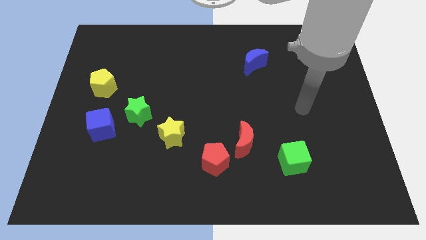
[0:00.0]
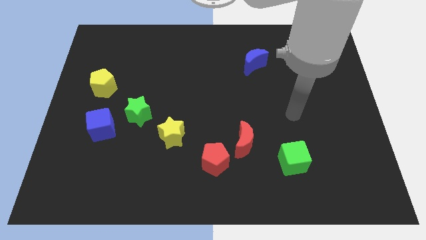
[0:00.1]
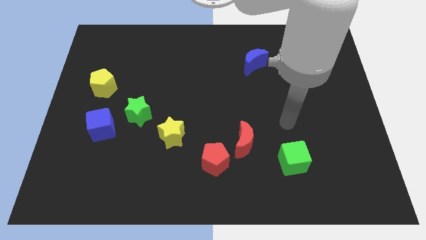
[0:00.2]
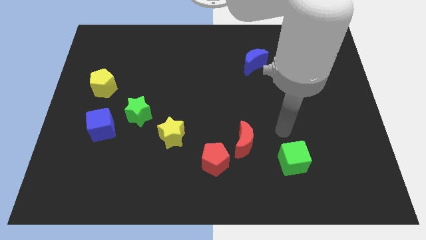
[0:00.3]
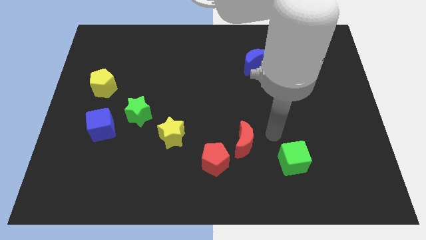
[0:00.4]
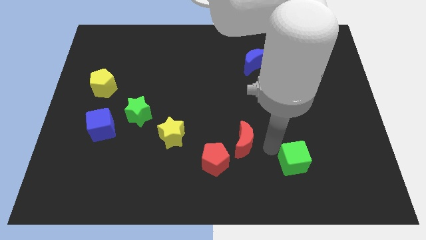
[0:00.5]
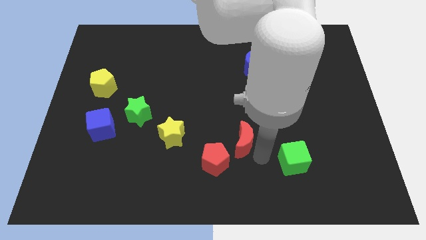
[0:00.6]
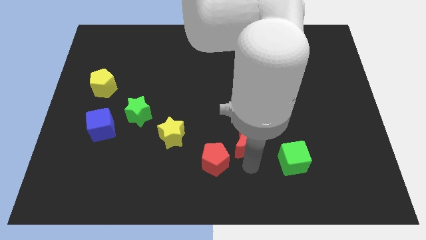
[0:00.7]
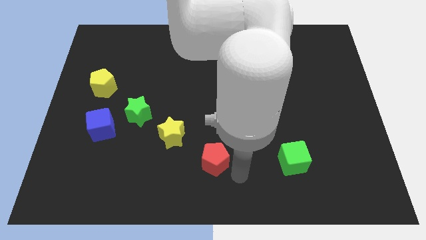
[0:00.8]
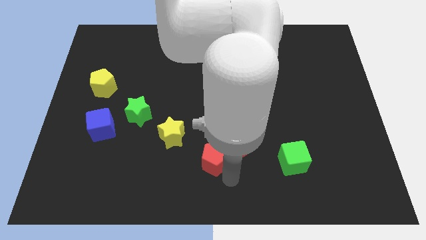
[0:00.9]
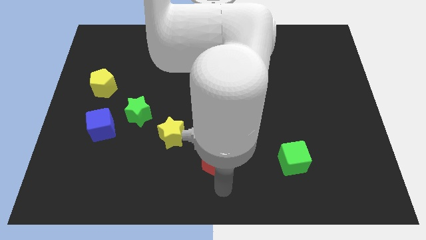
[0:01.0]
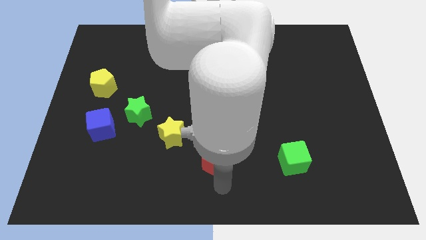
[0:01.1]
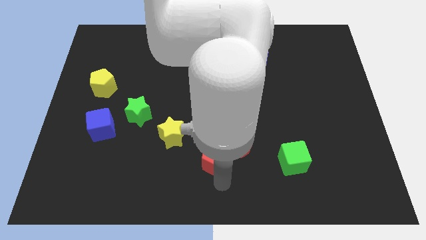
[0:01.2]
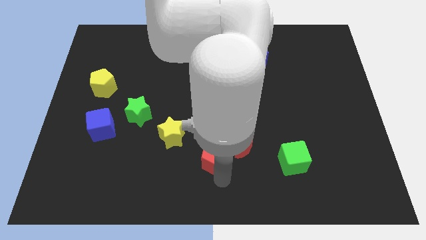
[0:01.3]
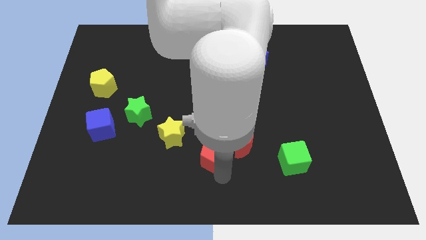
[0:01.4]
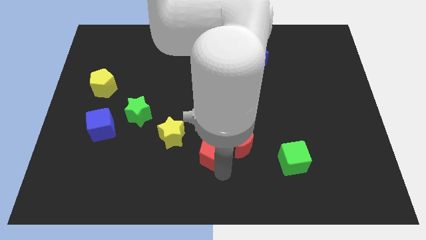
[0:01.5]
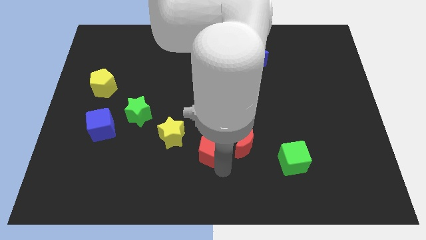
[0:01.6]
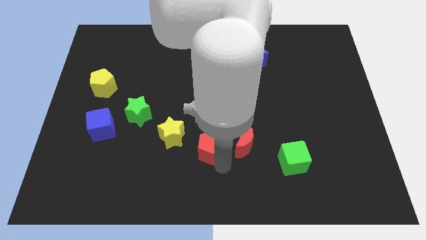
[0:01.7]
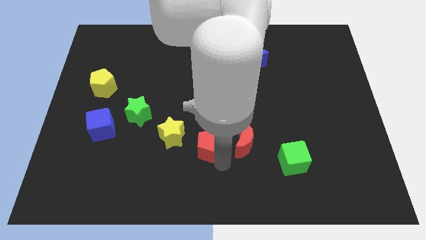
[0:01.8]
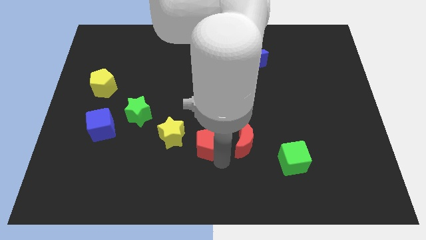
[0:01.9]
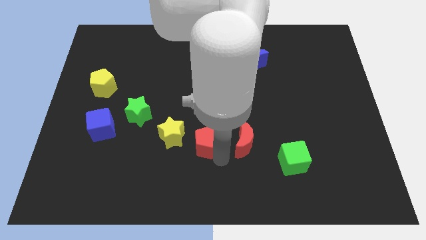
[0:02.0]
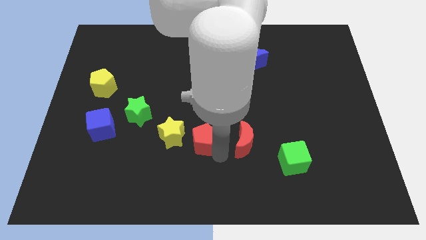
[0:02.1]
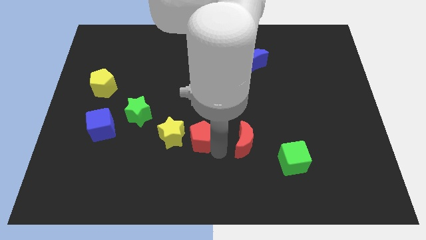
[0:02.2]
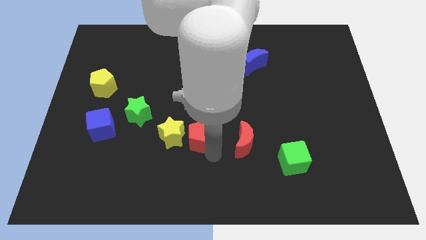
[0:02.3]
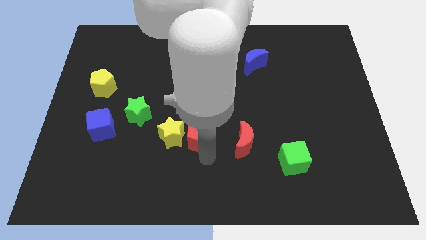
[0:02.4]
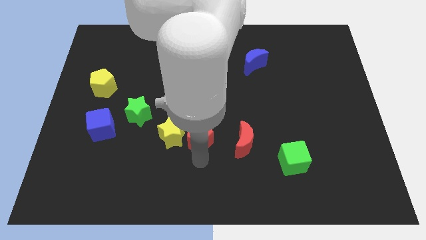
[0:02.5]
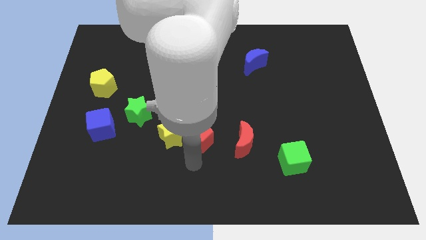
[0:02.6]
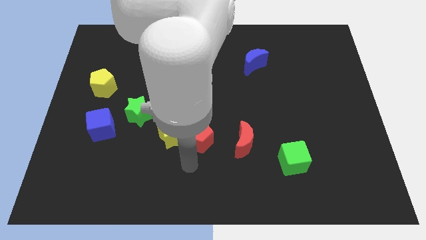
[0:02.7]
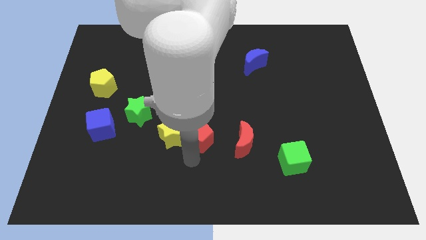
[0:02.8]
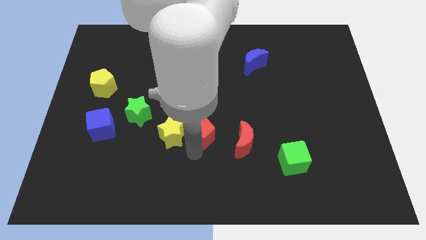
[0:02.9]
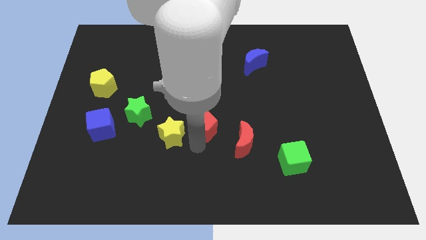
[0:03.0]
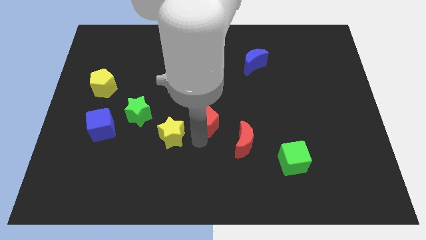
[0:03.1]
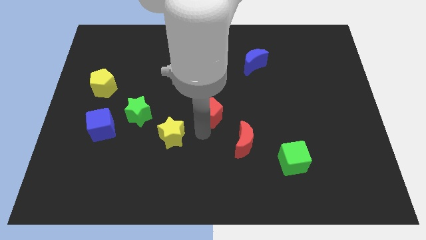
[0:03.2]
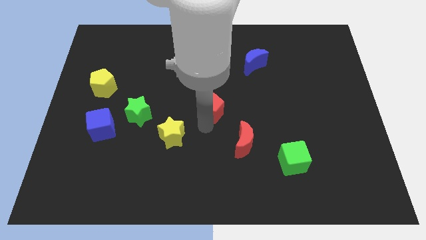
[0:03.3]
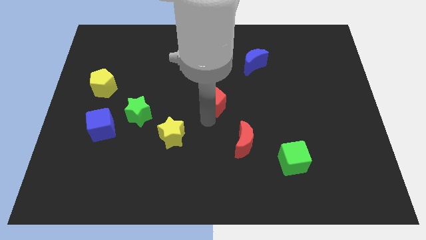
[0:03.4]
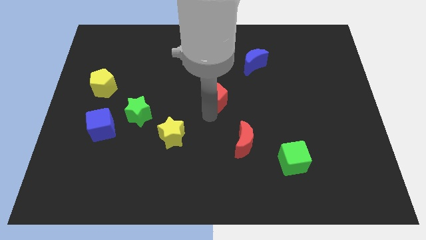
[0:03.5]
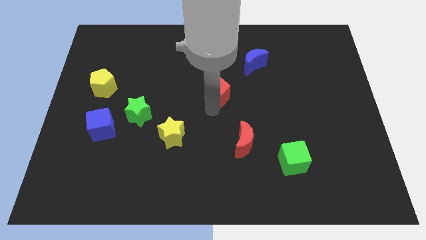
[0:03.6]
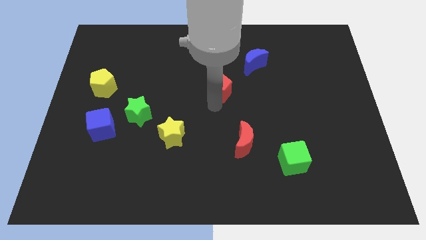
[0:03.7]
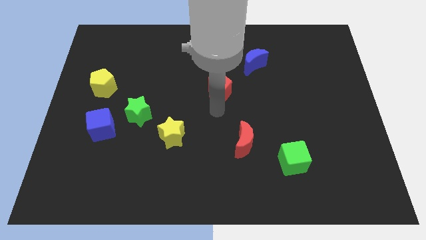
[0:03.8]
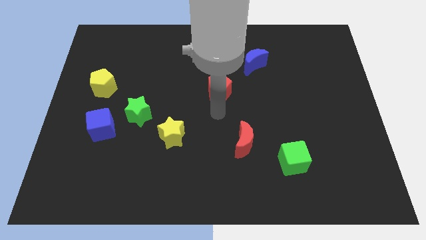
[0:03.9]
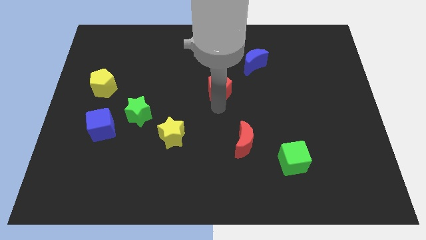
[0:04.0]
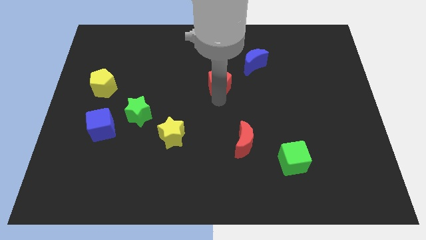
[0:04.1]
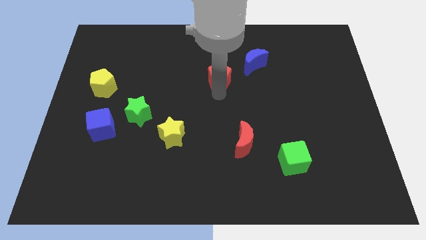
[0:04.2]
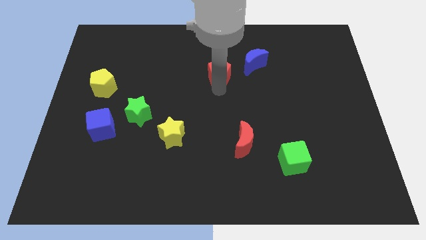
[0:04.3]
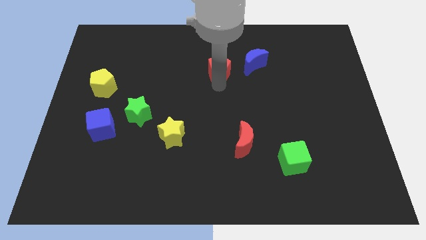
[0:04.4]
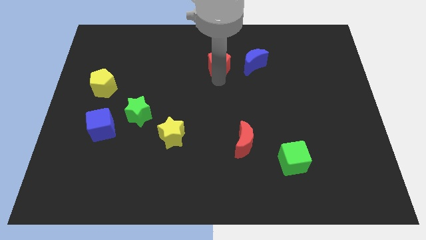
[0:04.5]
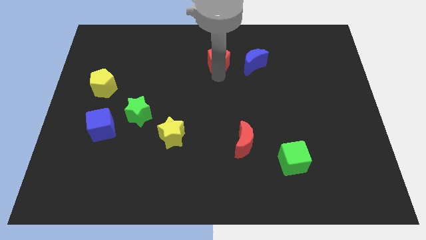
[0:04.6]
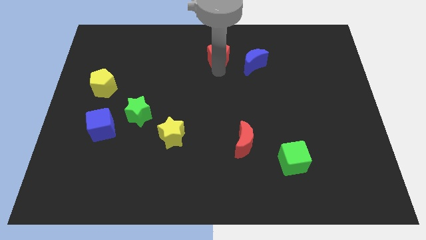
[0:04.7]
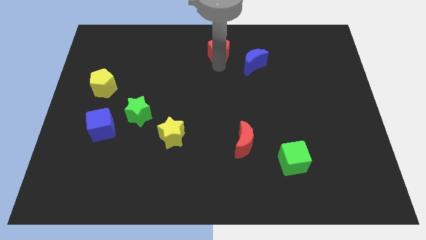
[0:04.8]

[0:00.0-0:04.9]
put the red pentagon to the towards your base

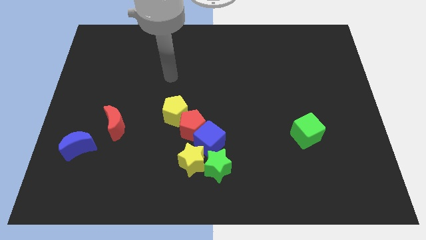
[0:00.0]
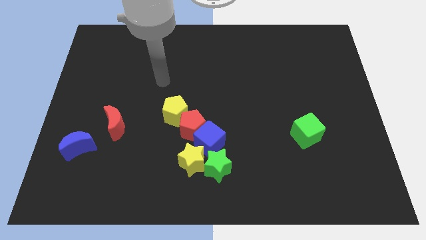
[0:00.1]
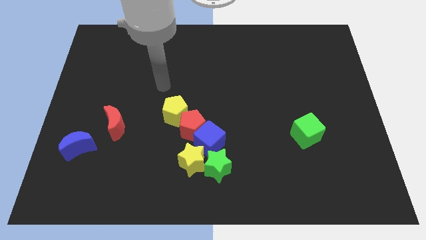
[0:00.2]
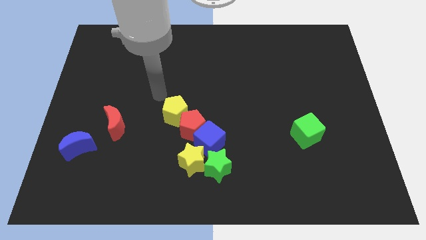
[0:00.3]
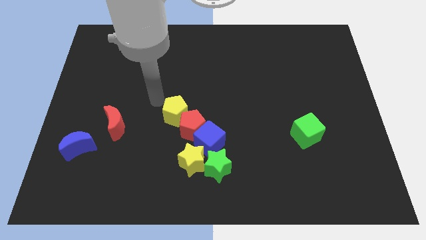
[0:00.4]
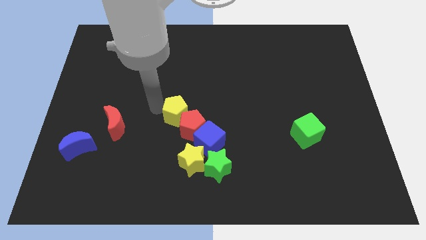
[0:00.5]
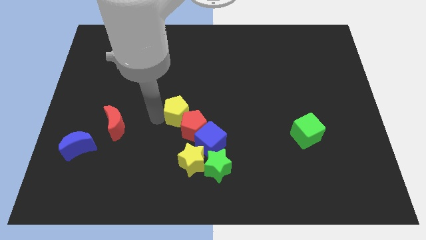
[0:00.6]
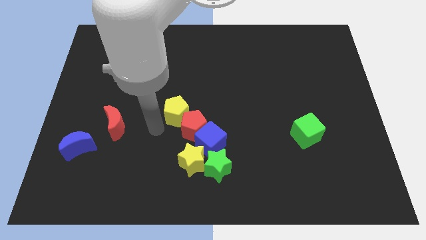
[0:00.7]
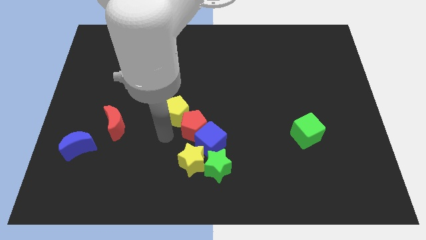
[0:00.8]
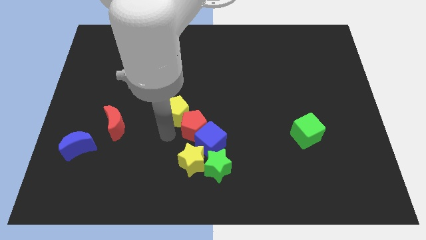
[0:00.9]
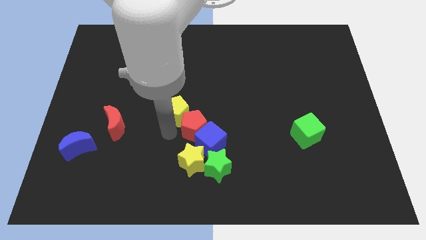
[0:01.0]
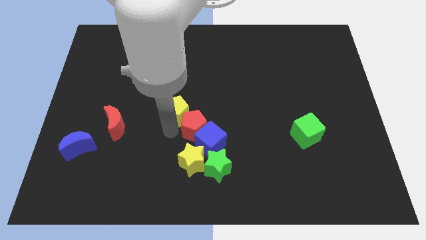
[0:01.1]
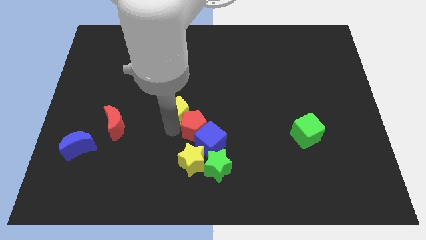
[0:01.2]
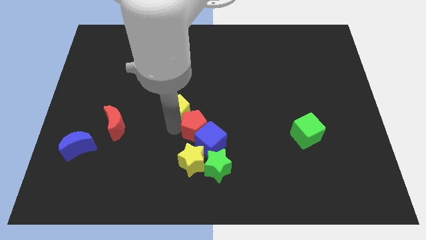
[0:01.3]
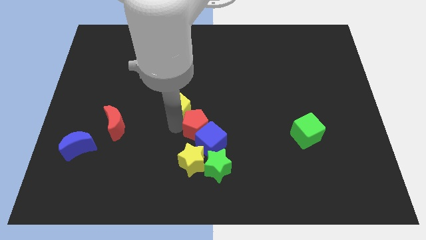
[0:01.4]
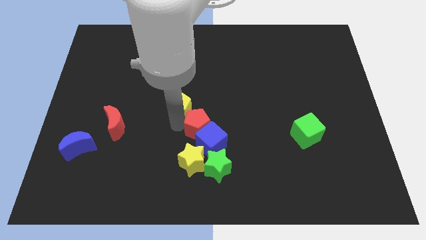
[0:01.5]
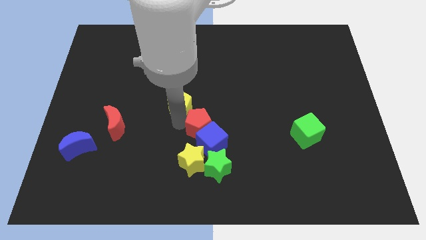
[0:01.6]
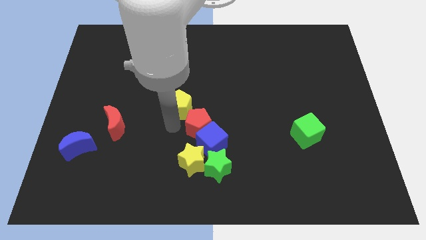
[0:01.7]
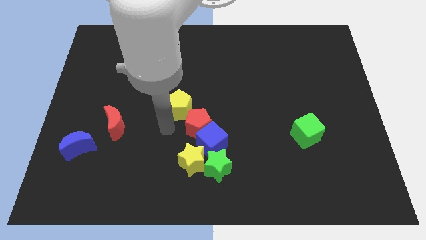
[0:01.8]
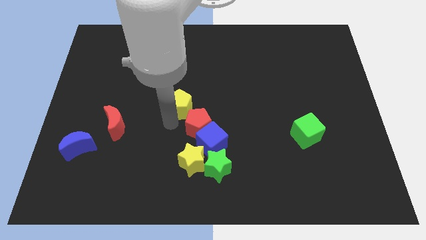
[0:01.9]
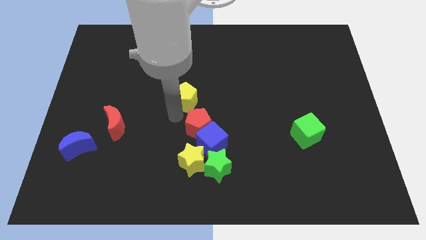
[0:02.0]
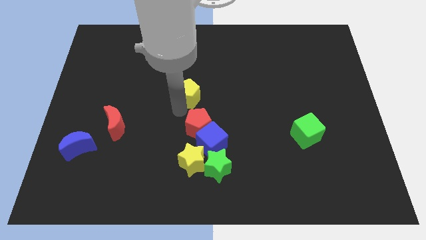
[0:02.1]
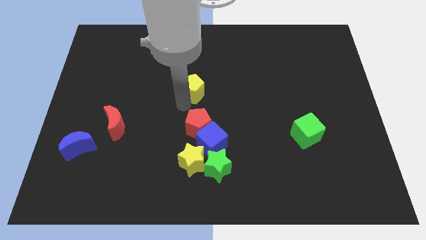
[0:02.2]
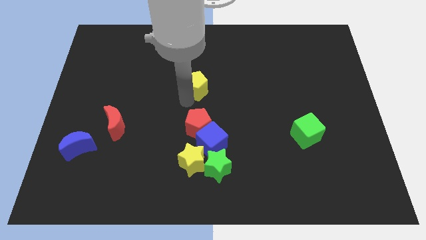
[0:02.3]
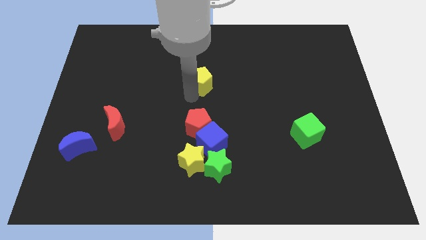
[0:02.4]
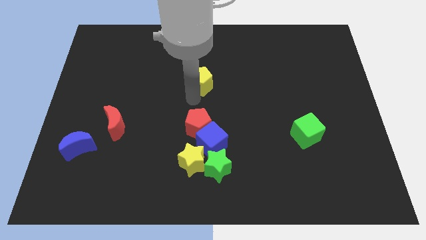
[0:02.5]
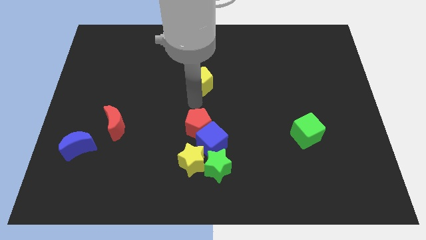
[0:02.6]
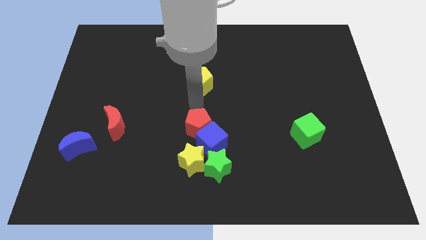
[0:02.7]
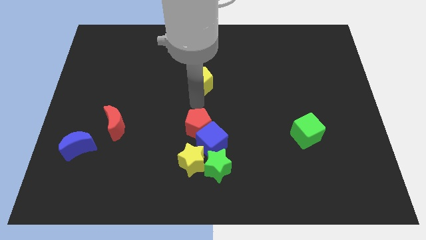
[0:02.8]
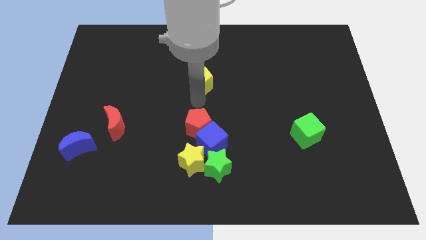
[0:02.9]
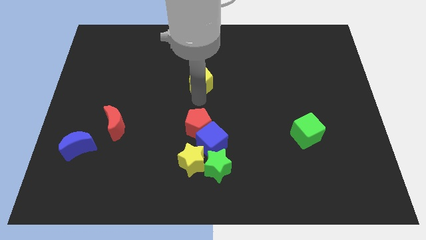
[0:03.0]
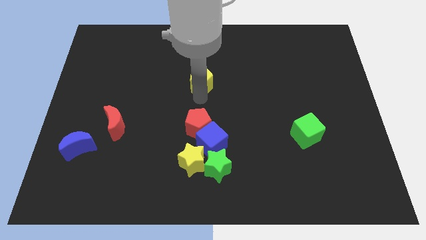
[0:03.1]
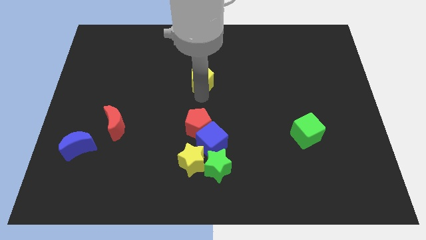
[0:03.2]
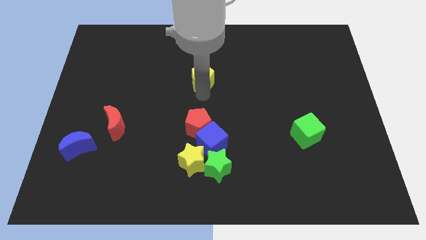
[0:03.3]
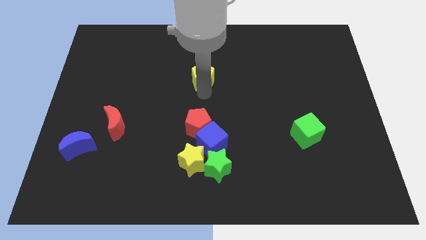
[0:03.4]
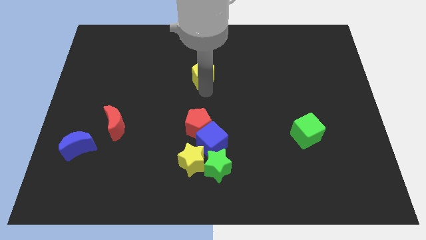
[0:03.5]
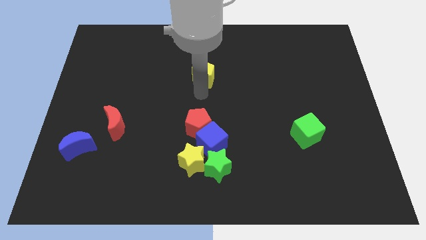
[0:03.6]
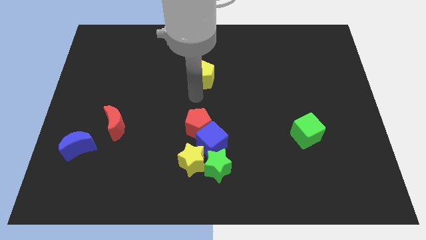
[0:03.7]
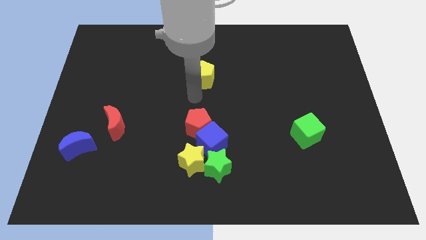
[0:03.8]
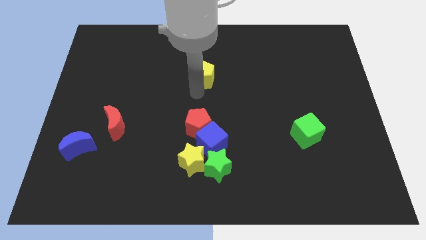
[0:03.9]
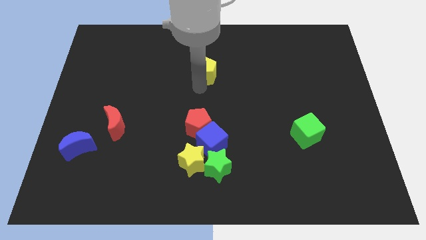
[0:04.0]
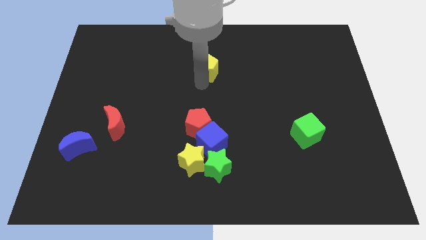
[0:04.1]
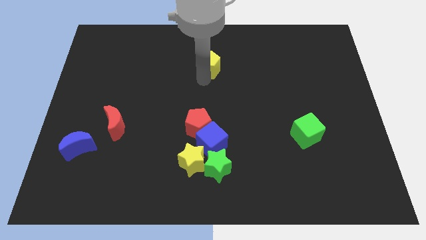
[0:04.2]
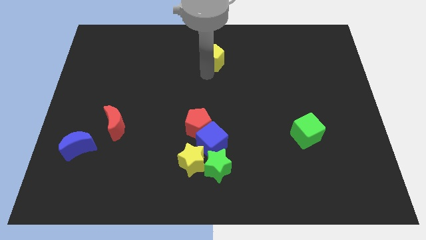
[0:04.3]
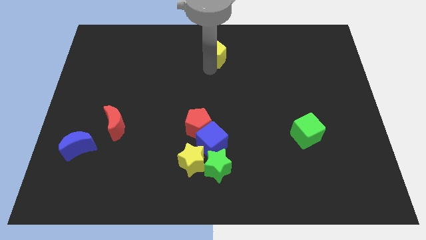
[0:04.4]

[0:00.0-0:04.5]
push the yellow pentagon to the top
